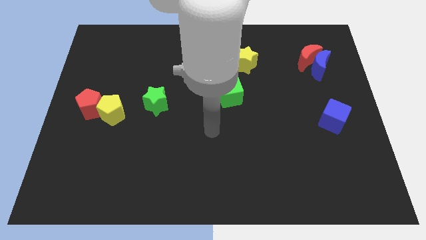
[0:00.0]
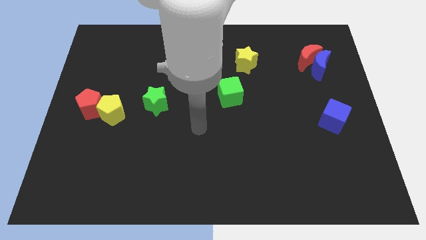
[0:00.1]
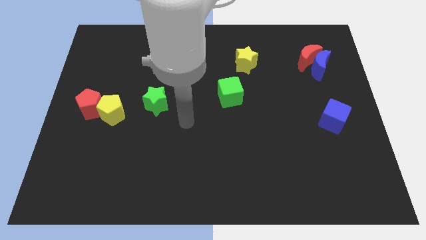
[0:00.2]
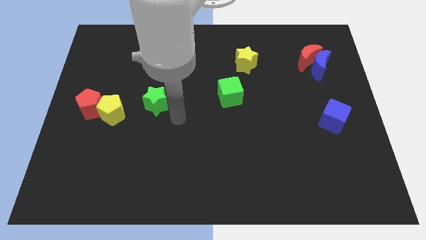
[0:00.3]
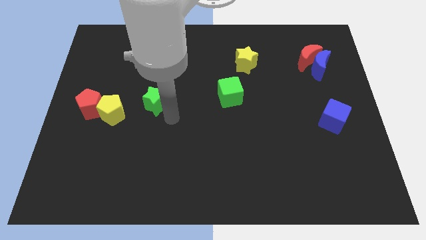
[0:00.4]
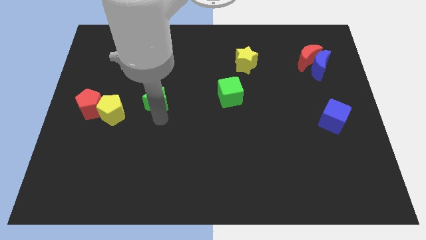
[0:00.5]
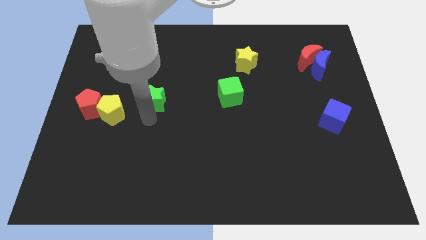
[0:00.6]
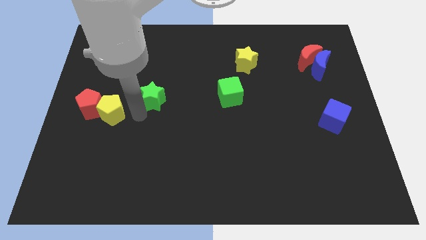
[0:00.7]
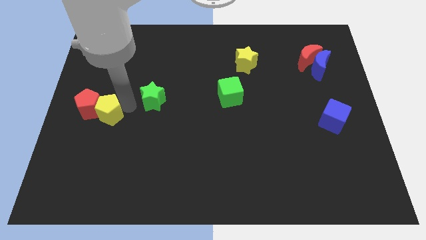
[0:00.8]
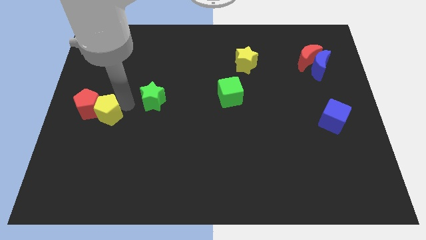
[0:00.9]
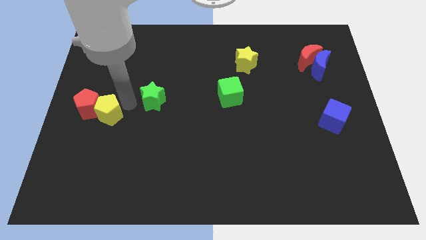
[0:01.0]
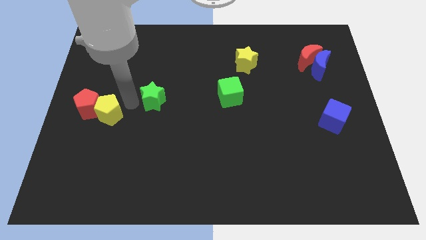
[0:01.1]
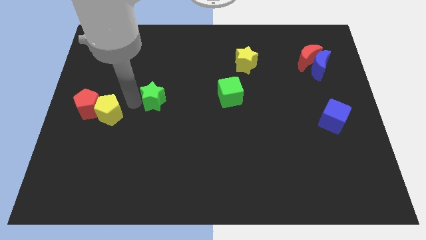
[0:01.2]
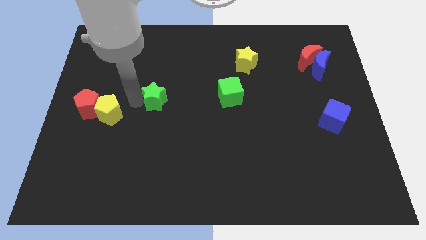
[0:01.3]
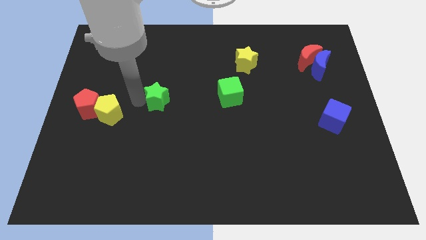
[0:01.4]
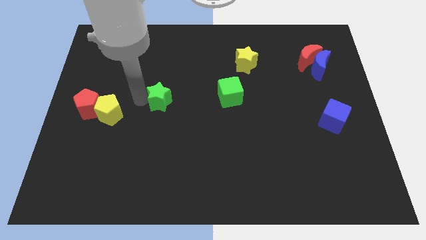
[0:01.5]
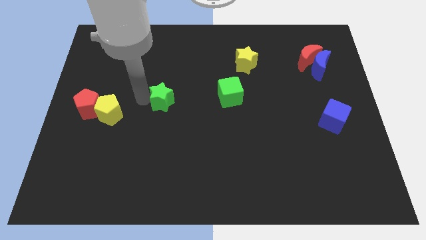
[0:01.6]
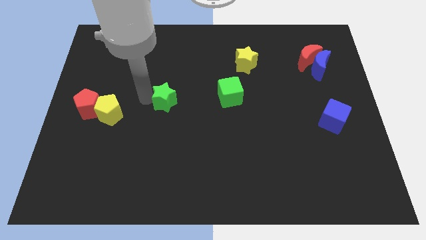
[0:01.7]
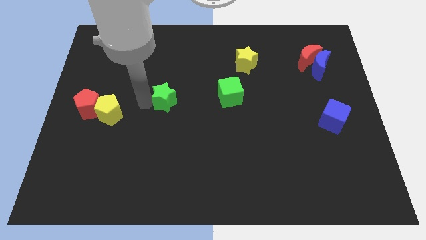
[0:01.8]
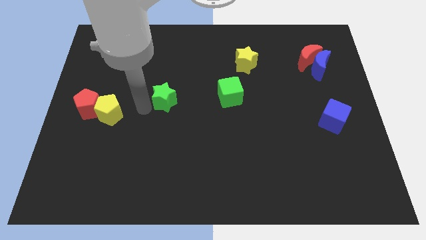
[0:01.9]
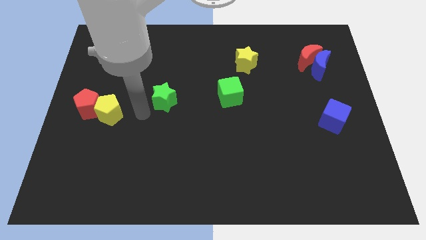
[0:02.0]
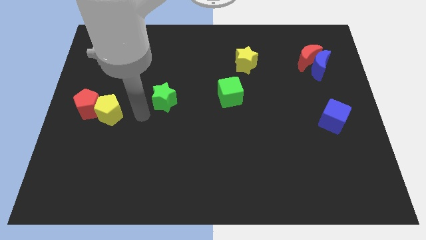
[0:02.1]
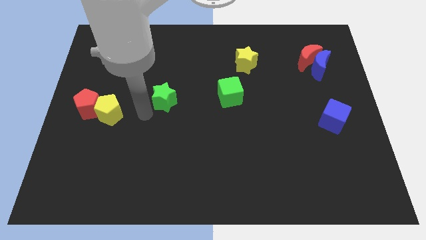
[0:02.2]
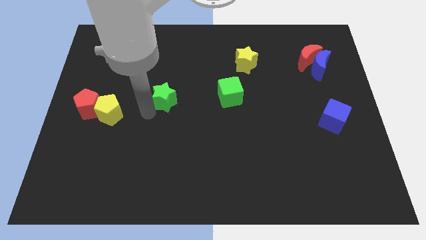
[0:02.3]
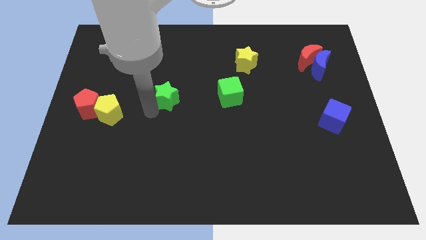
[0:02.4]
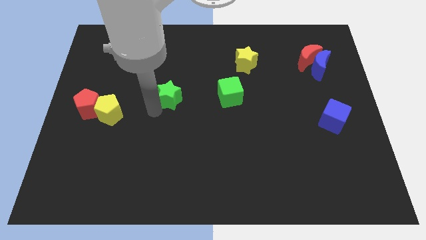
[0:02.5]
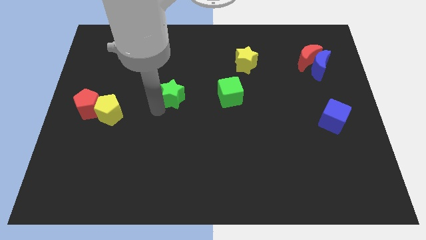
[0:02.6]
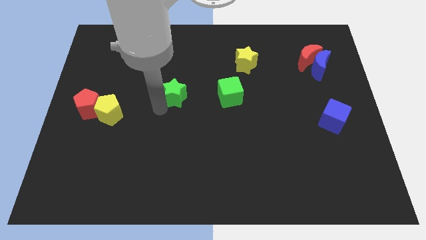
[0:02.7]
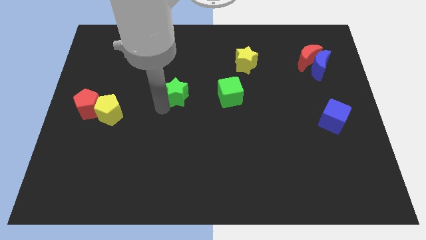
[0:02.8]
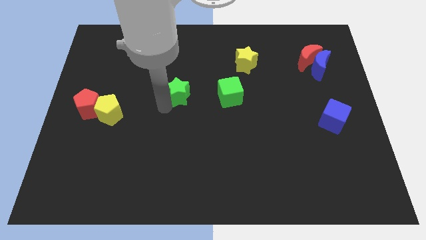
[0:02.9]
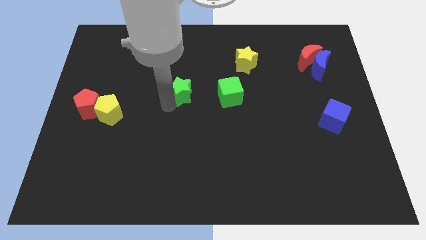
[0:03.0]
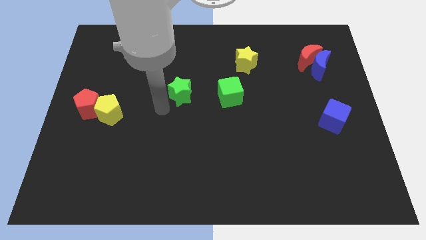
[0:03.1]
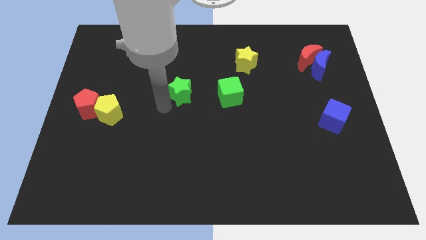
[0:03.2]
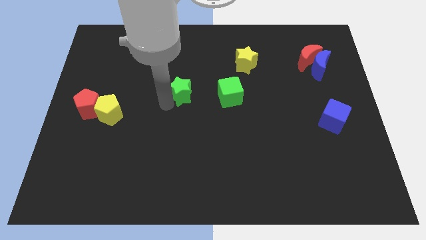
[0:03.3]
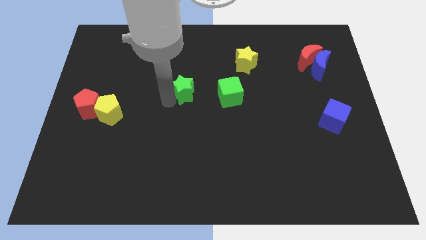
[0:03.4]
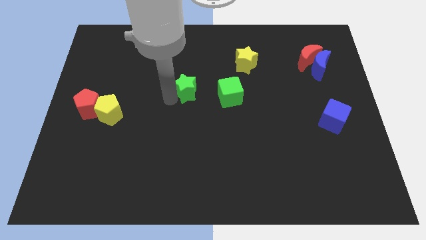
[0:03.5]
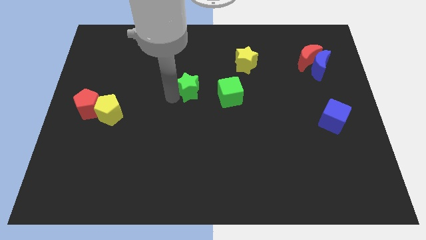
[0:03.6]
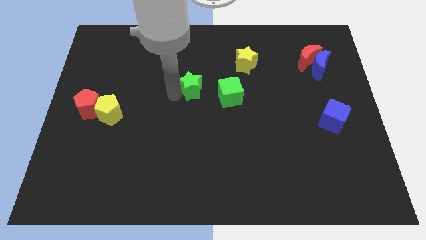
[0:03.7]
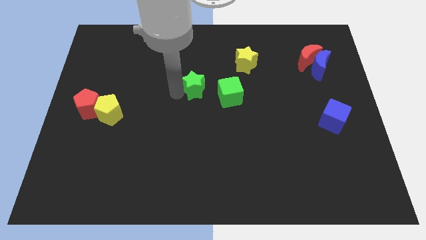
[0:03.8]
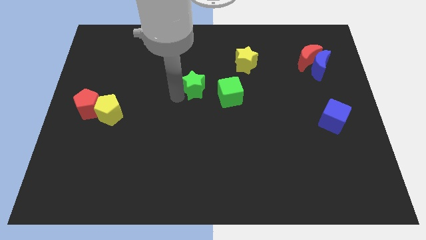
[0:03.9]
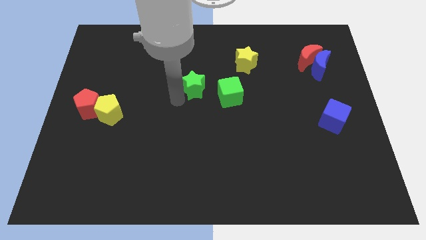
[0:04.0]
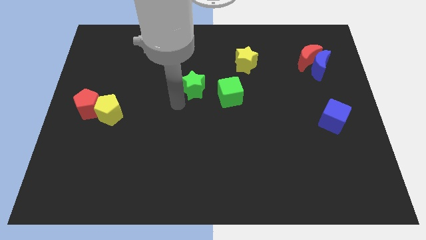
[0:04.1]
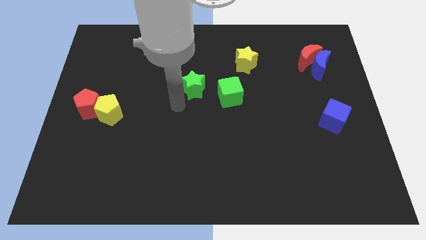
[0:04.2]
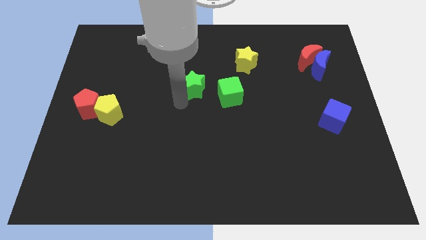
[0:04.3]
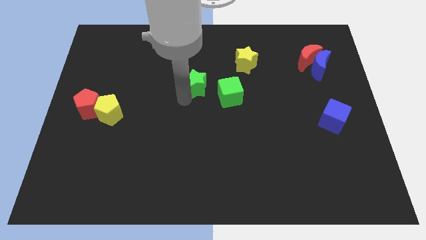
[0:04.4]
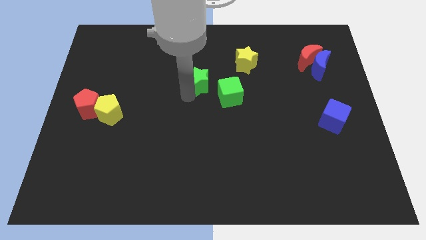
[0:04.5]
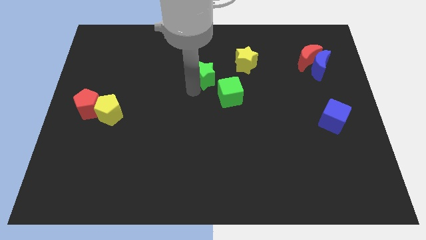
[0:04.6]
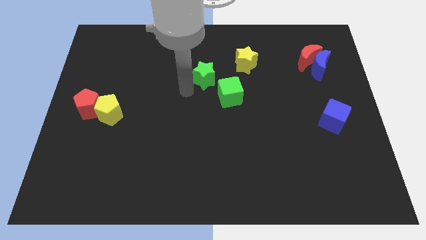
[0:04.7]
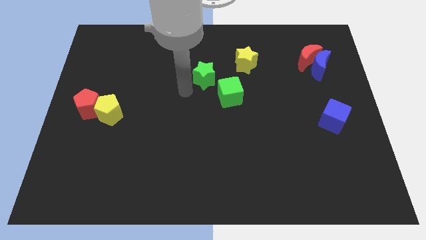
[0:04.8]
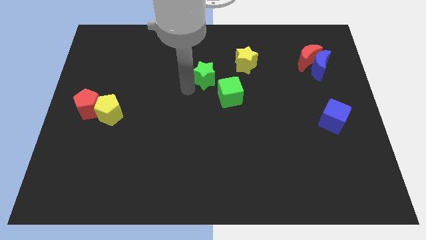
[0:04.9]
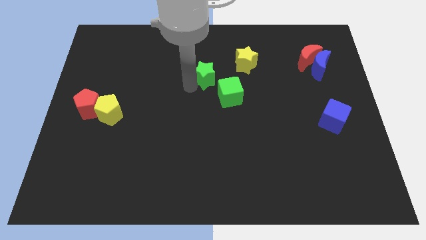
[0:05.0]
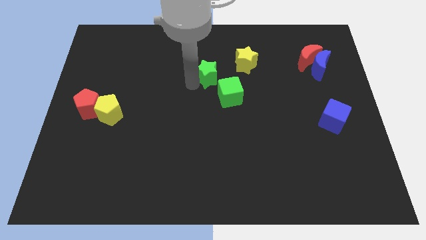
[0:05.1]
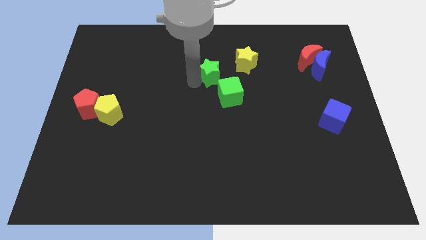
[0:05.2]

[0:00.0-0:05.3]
put the green star above the green cube

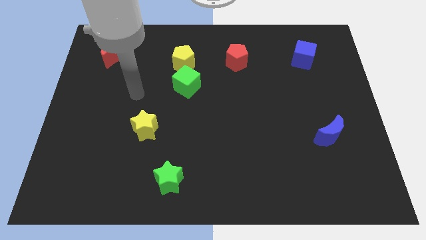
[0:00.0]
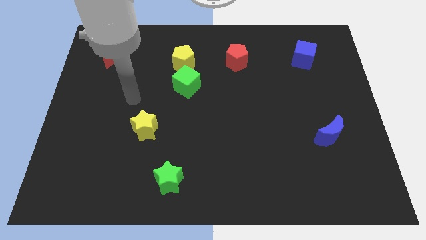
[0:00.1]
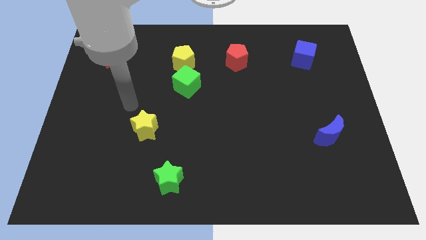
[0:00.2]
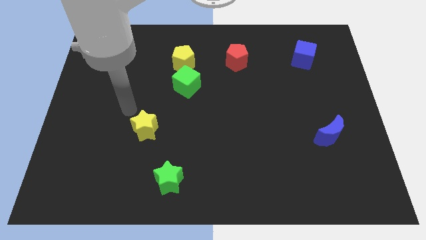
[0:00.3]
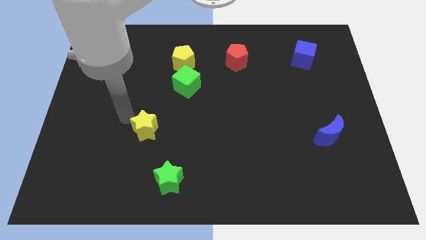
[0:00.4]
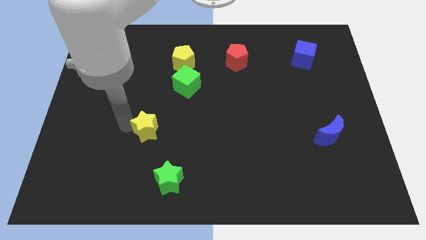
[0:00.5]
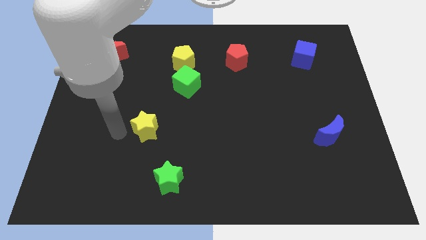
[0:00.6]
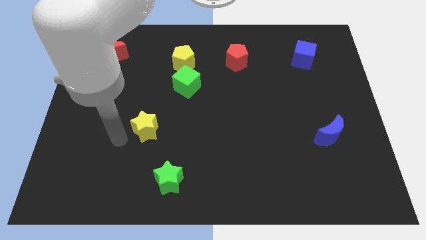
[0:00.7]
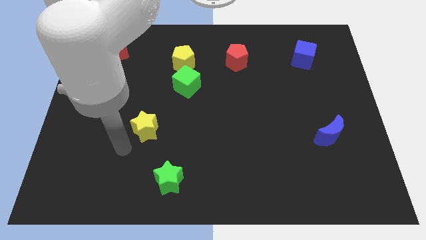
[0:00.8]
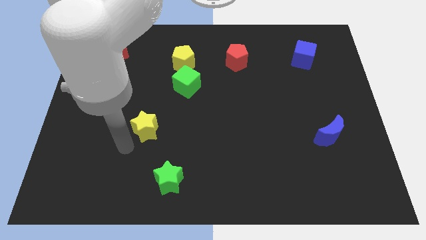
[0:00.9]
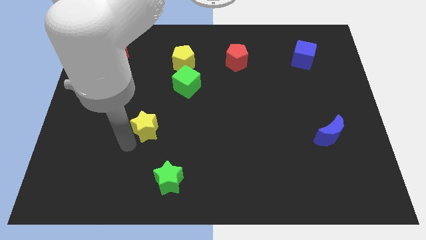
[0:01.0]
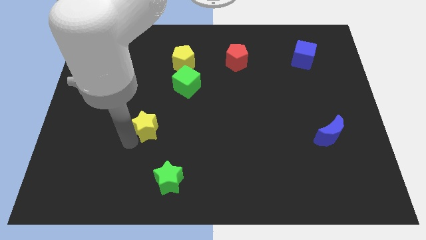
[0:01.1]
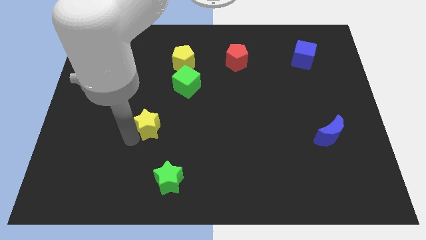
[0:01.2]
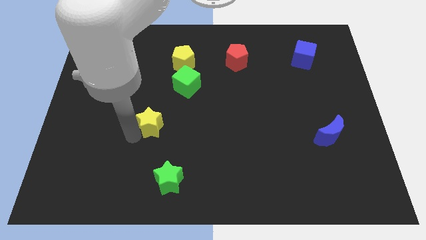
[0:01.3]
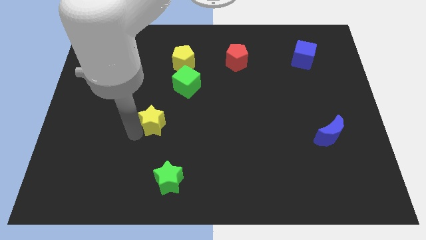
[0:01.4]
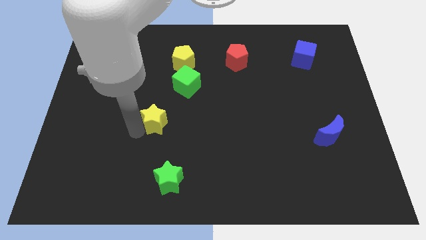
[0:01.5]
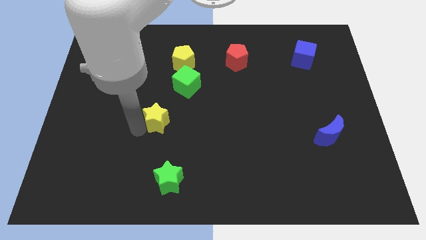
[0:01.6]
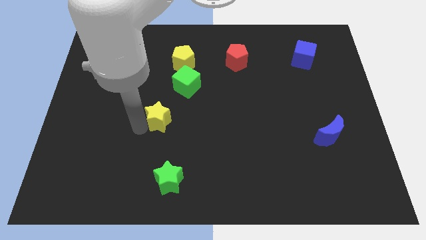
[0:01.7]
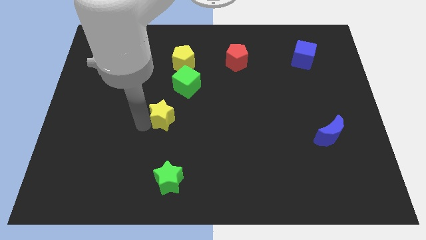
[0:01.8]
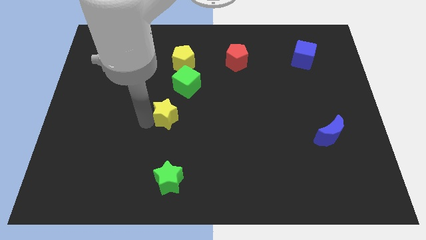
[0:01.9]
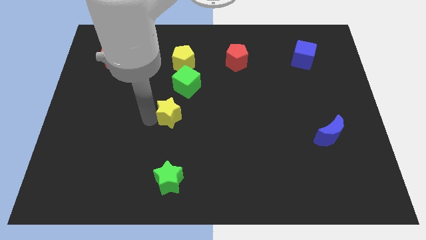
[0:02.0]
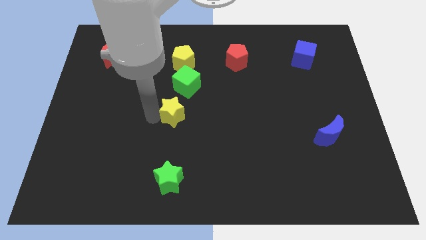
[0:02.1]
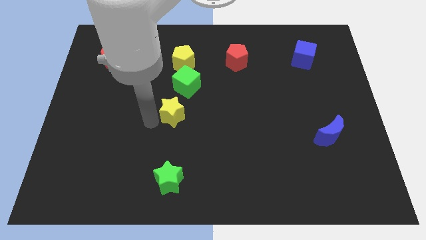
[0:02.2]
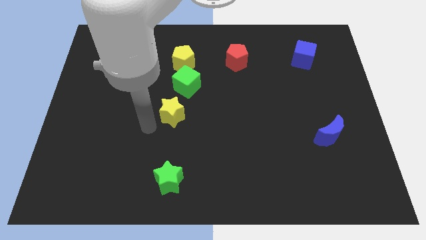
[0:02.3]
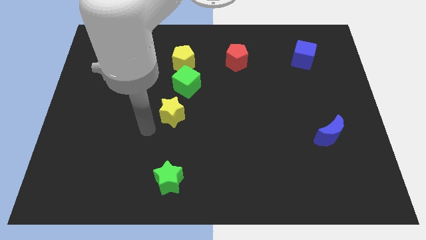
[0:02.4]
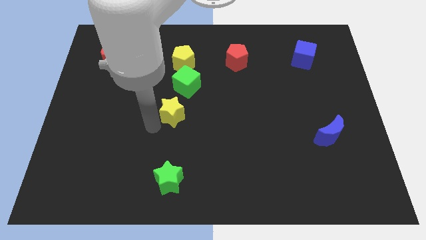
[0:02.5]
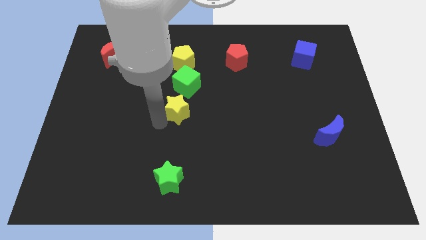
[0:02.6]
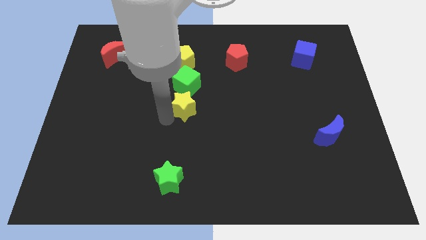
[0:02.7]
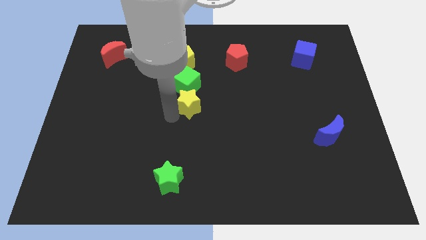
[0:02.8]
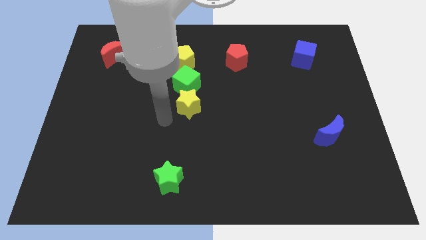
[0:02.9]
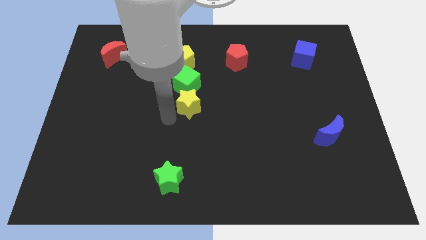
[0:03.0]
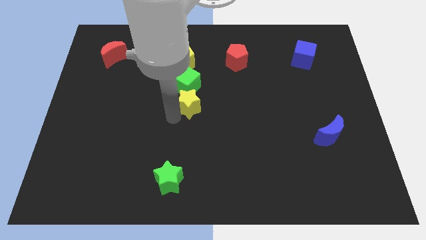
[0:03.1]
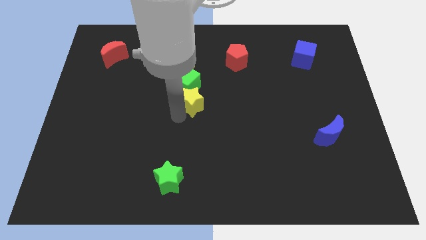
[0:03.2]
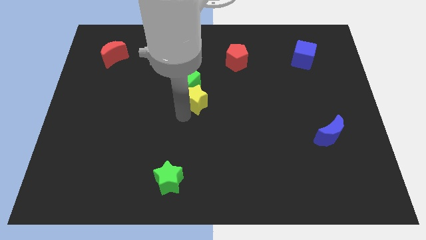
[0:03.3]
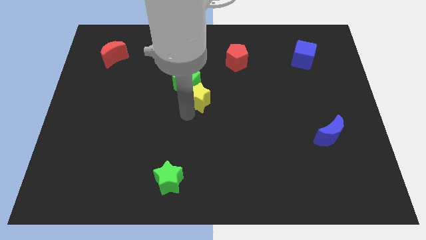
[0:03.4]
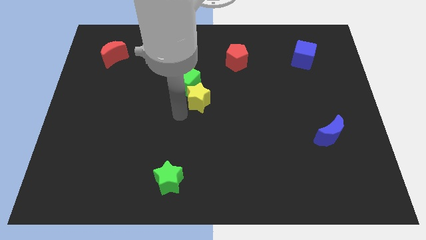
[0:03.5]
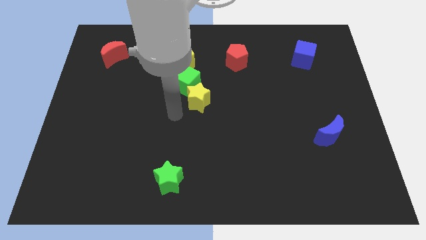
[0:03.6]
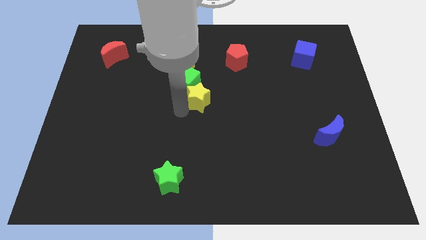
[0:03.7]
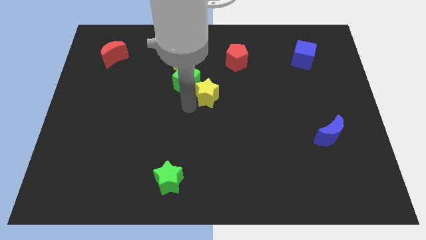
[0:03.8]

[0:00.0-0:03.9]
push the yellow star to the right of the green cube
